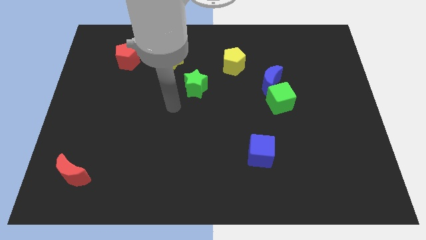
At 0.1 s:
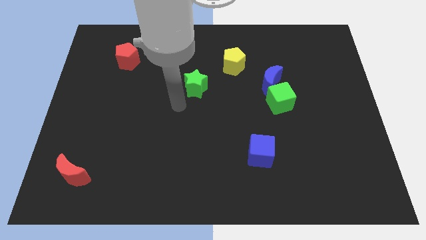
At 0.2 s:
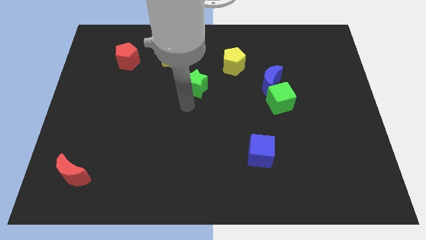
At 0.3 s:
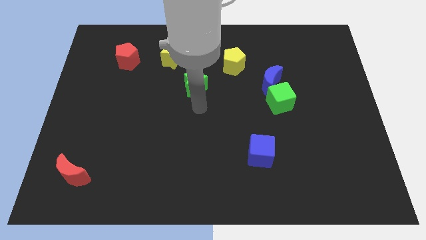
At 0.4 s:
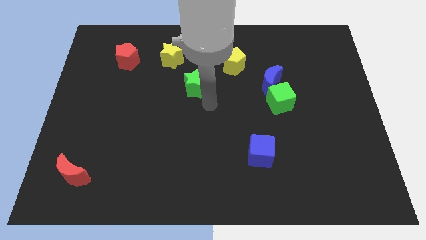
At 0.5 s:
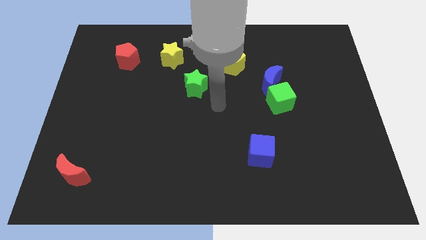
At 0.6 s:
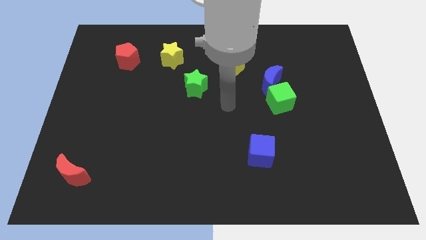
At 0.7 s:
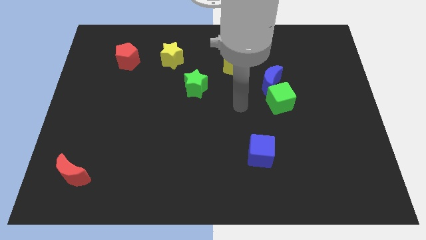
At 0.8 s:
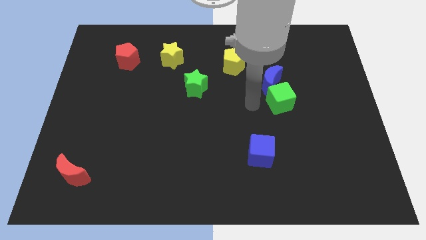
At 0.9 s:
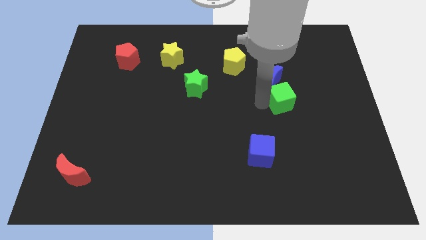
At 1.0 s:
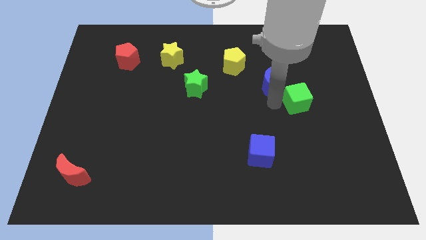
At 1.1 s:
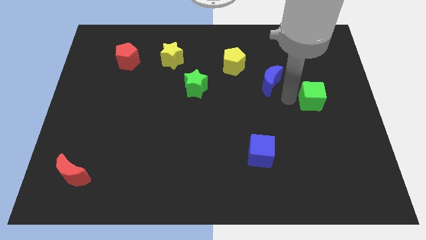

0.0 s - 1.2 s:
separate the blue moon from the green cube

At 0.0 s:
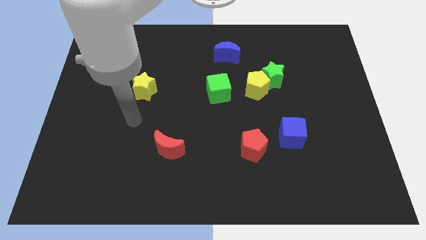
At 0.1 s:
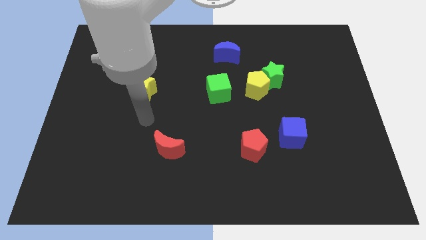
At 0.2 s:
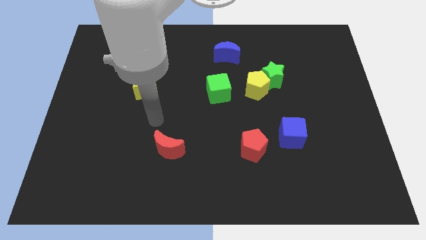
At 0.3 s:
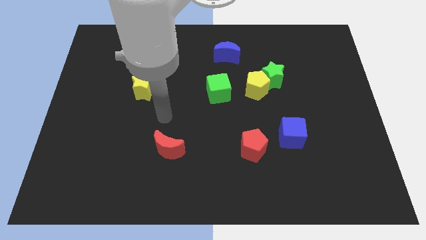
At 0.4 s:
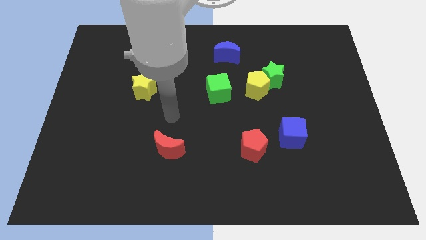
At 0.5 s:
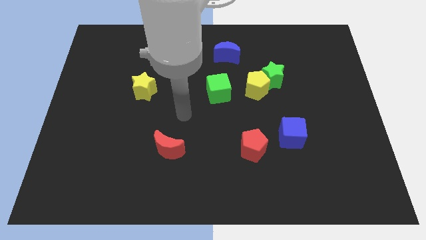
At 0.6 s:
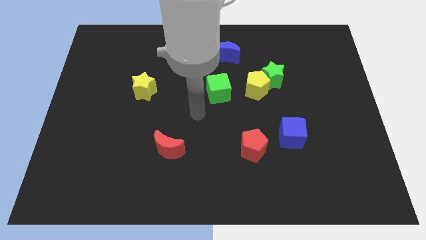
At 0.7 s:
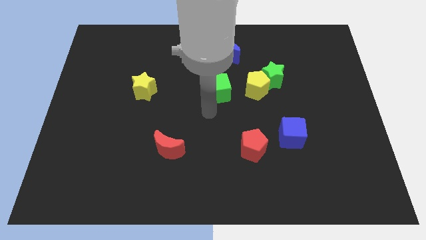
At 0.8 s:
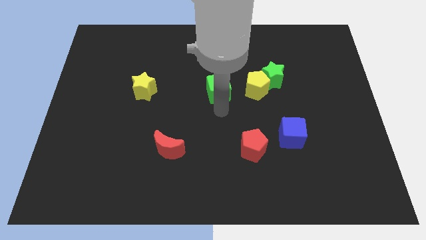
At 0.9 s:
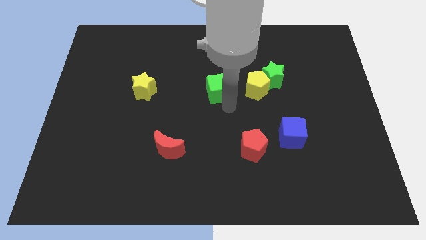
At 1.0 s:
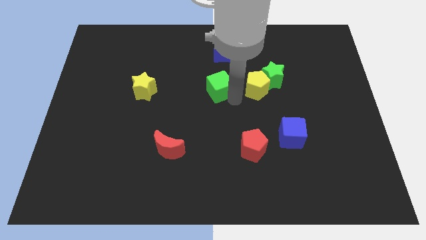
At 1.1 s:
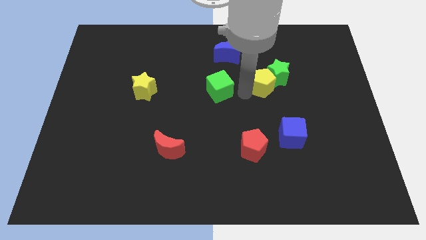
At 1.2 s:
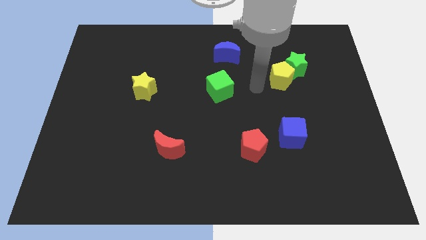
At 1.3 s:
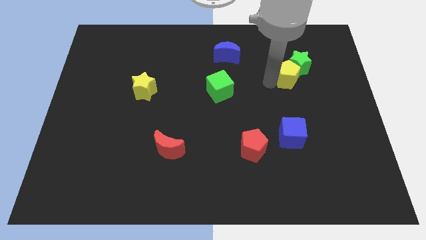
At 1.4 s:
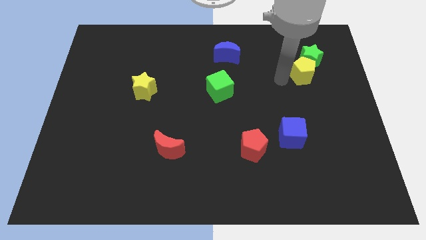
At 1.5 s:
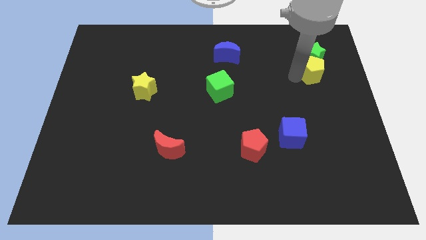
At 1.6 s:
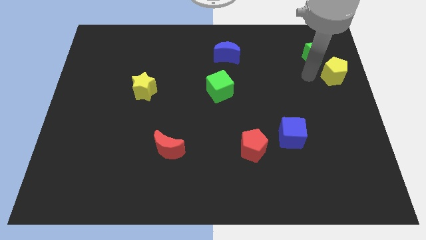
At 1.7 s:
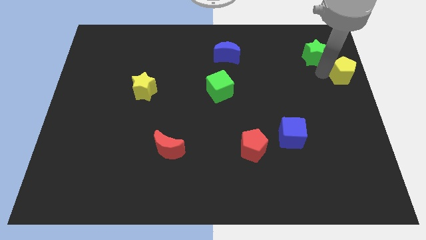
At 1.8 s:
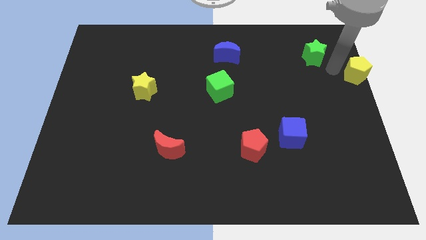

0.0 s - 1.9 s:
separate the green star from the yellow pentagon

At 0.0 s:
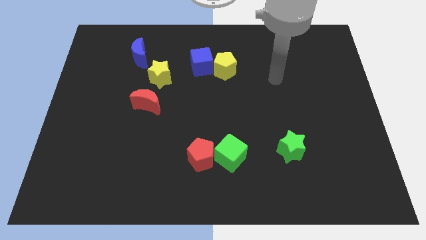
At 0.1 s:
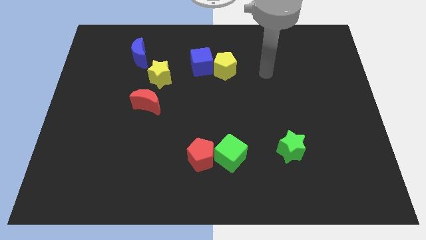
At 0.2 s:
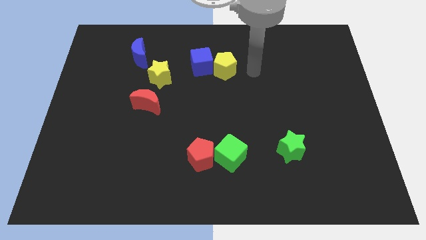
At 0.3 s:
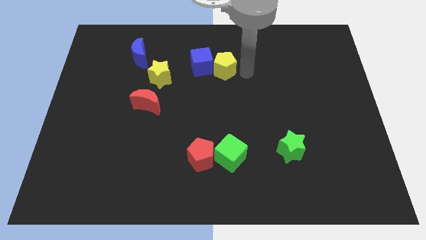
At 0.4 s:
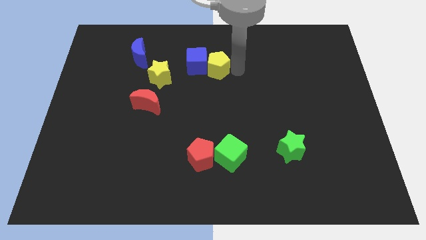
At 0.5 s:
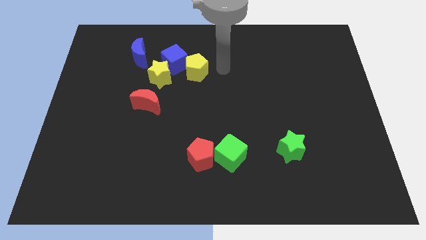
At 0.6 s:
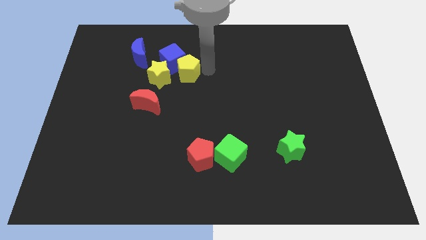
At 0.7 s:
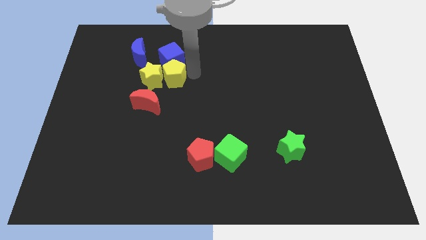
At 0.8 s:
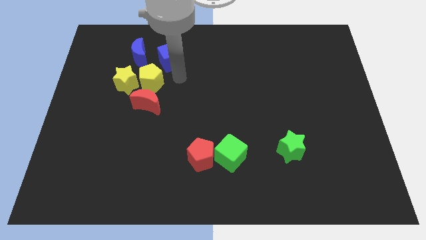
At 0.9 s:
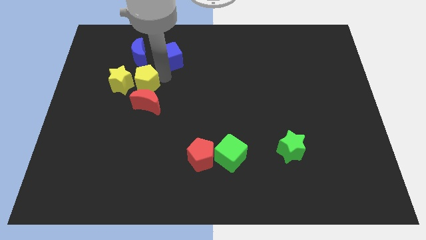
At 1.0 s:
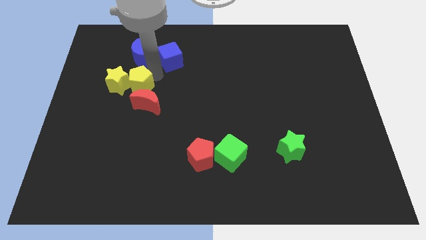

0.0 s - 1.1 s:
pull the blue cube apart from the yellow pentagon

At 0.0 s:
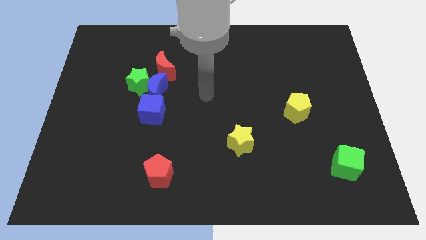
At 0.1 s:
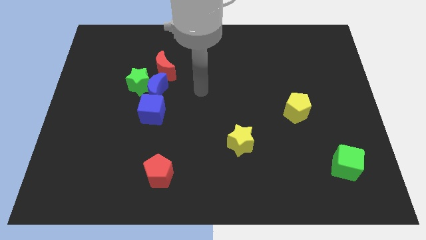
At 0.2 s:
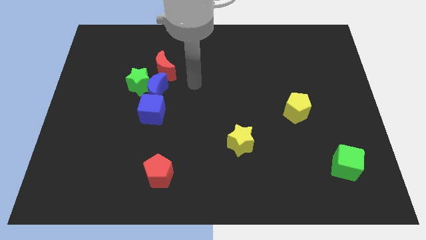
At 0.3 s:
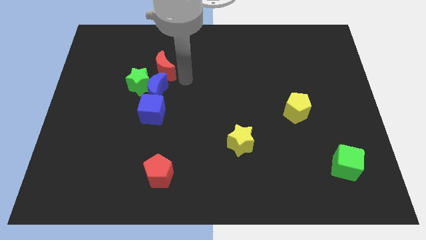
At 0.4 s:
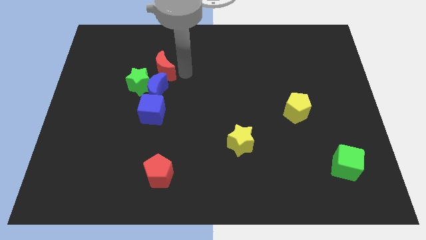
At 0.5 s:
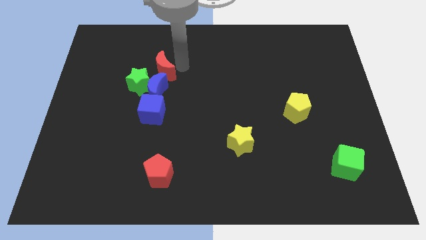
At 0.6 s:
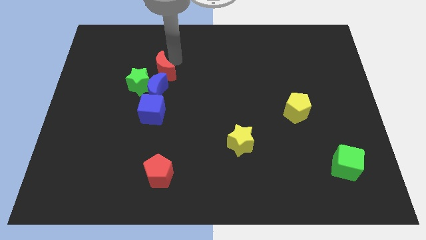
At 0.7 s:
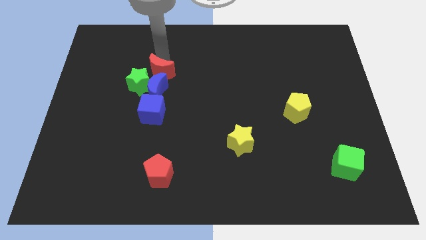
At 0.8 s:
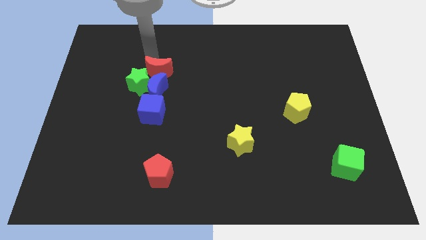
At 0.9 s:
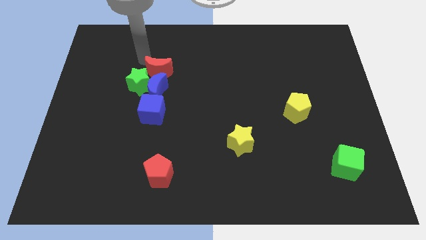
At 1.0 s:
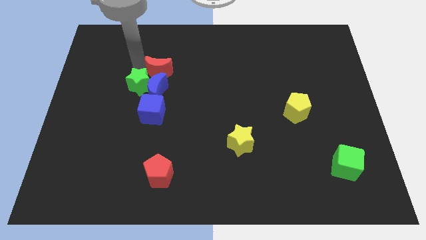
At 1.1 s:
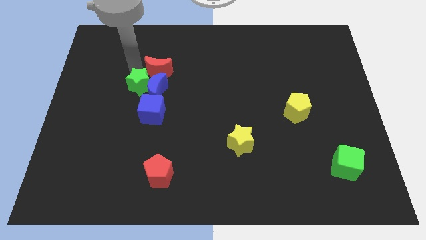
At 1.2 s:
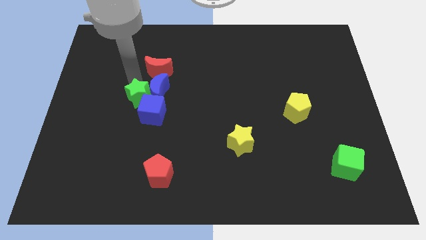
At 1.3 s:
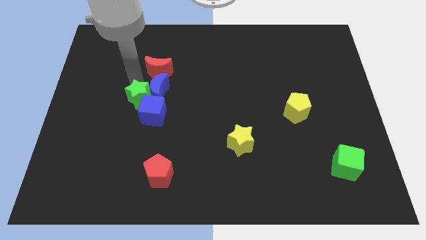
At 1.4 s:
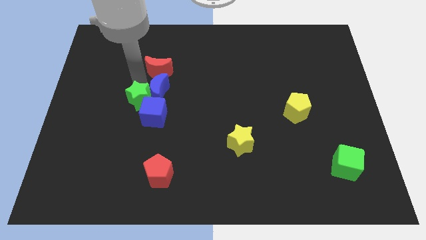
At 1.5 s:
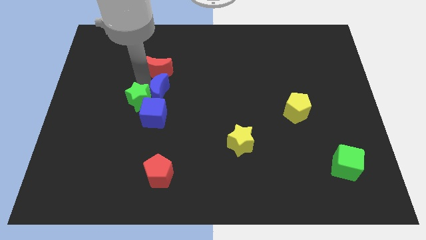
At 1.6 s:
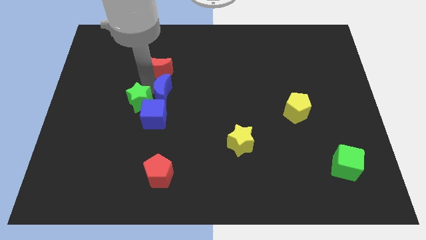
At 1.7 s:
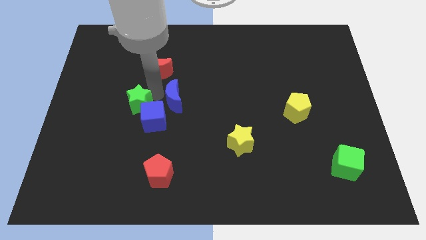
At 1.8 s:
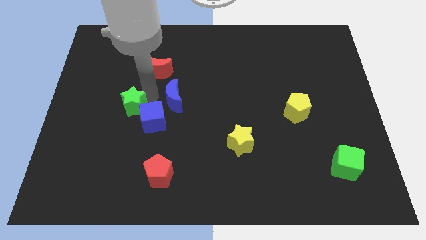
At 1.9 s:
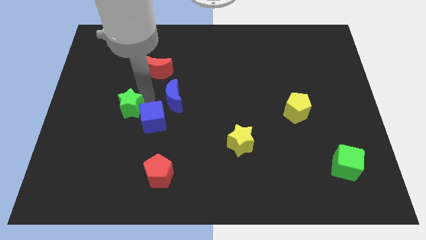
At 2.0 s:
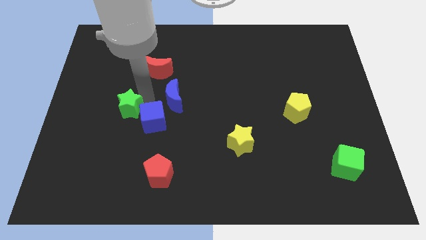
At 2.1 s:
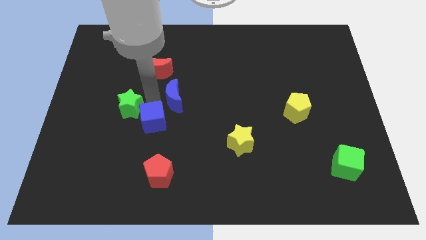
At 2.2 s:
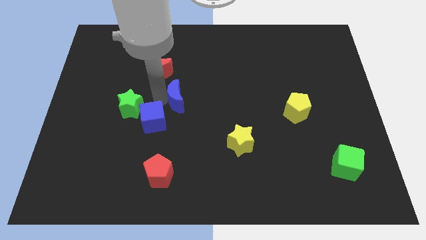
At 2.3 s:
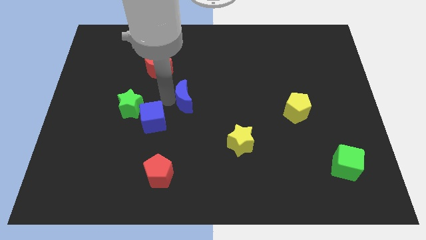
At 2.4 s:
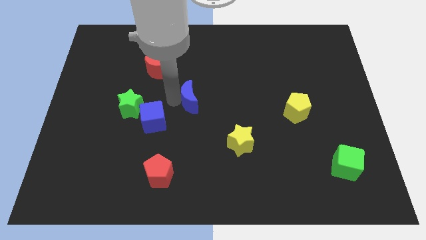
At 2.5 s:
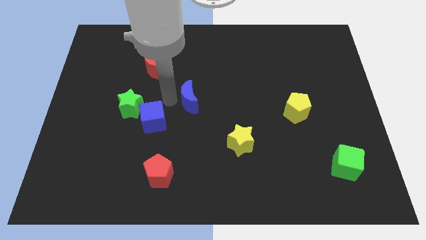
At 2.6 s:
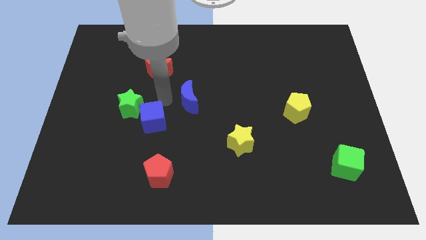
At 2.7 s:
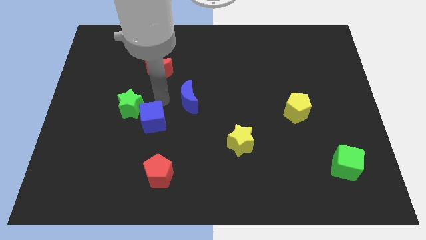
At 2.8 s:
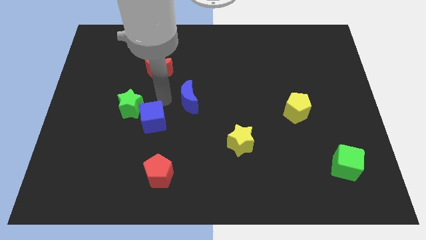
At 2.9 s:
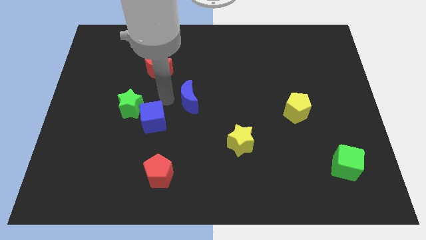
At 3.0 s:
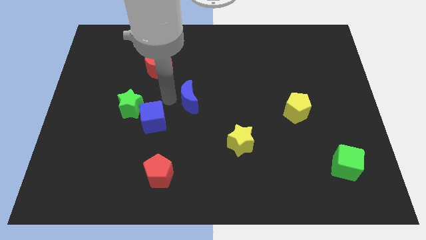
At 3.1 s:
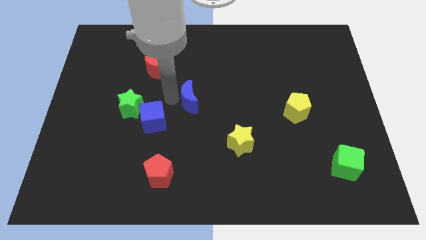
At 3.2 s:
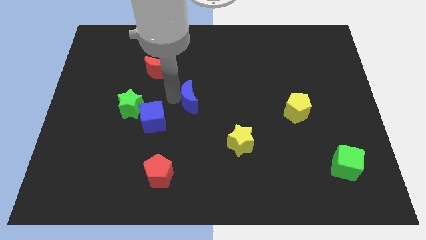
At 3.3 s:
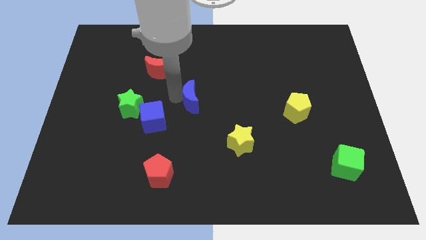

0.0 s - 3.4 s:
separate the blue moon from the group

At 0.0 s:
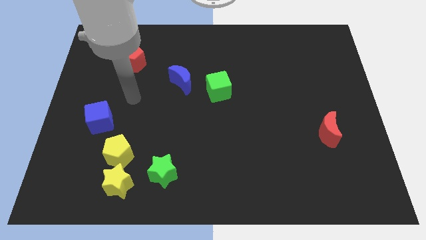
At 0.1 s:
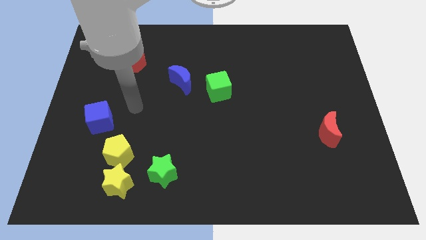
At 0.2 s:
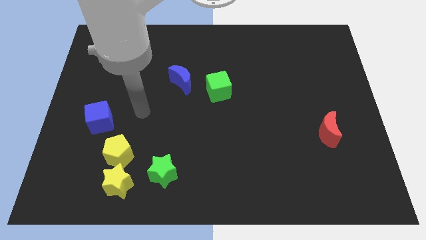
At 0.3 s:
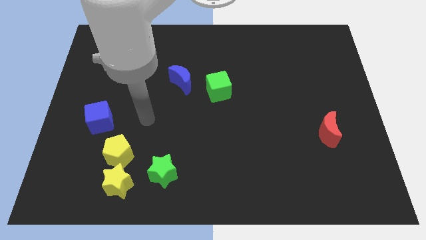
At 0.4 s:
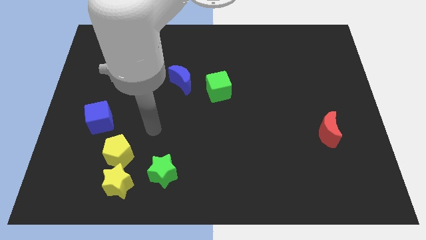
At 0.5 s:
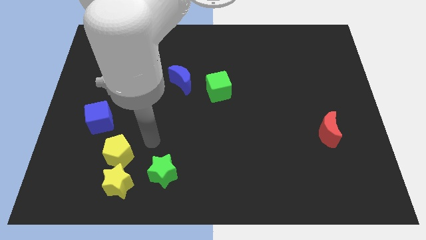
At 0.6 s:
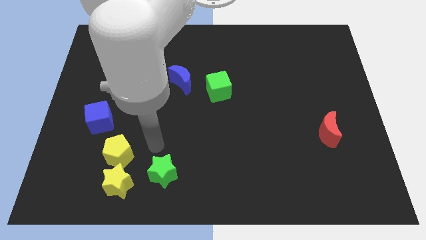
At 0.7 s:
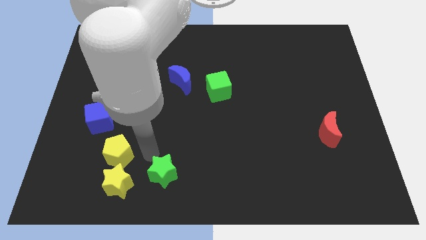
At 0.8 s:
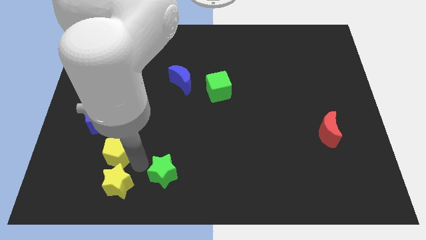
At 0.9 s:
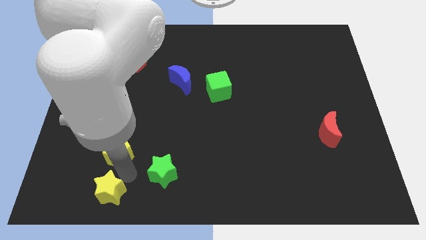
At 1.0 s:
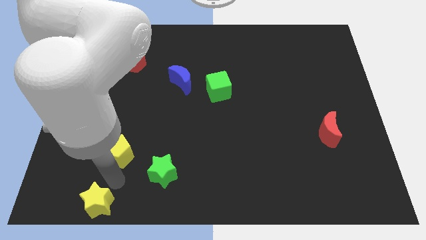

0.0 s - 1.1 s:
pull the yellow pentagon apart from the yellow star

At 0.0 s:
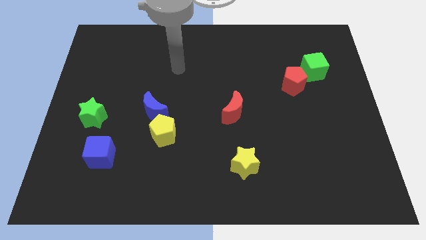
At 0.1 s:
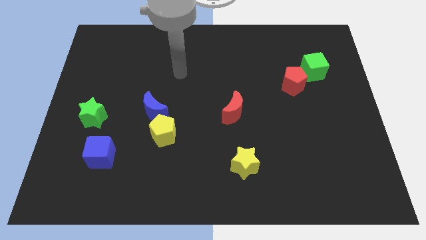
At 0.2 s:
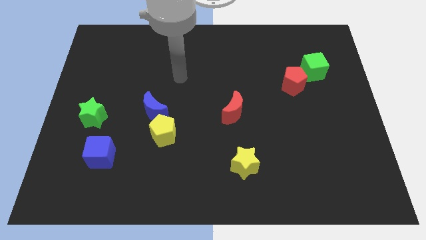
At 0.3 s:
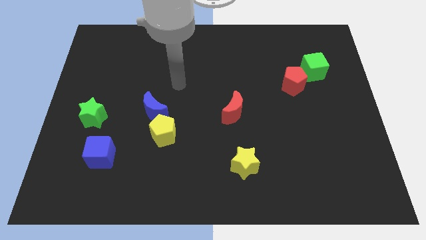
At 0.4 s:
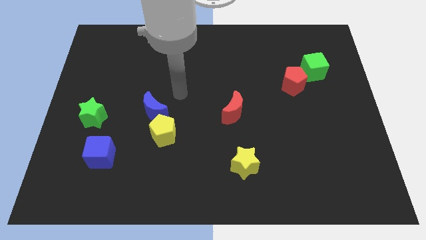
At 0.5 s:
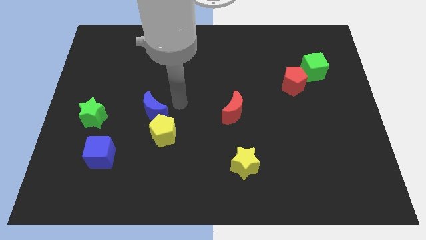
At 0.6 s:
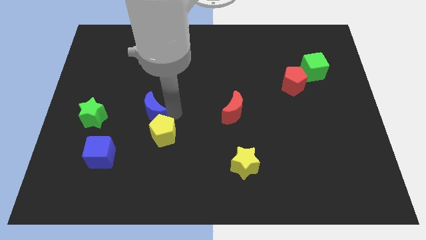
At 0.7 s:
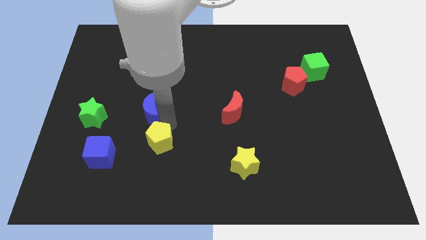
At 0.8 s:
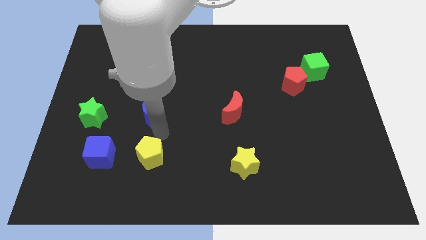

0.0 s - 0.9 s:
move the blue moon away from the yellow pentagon
